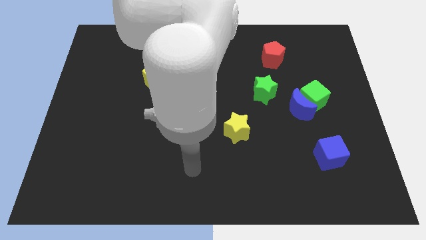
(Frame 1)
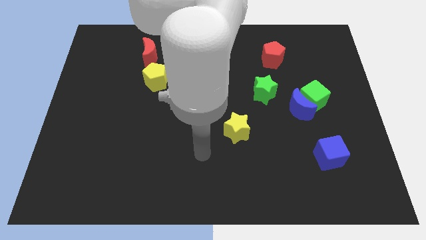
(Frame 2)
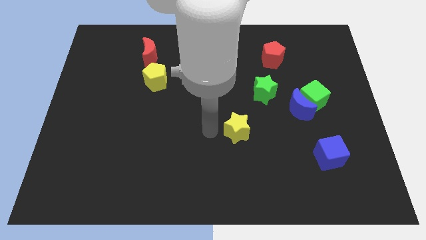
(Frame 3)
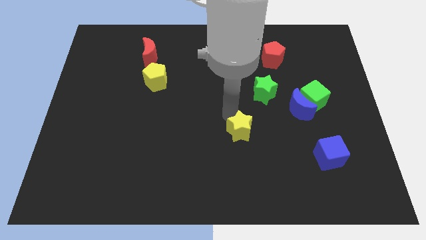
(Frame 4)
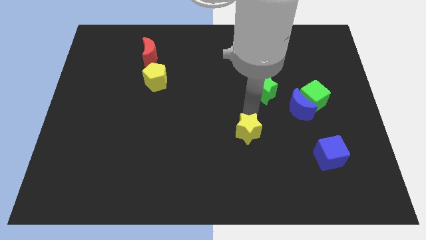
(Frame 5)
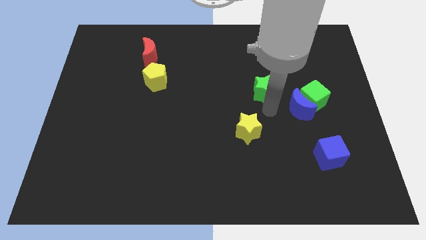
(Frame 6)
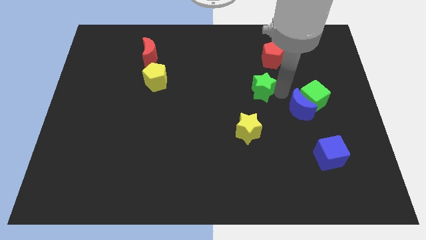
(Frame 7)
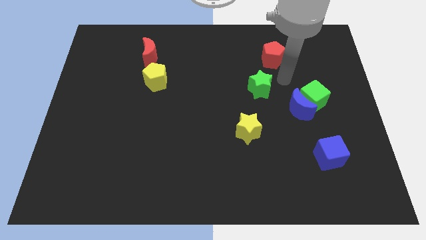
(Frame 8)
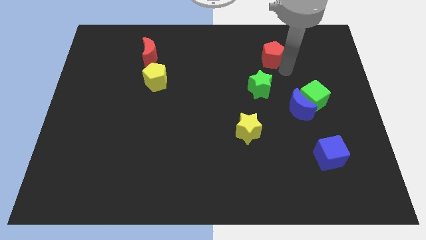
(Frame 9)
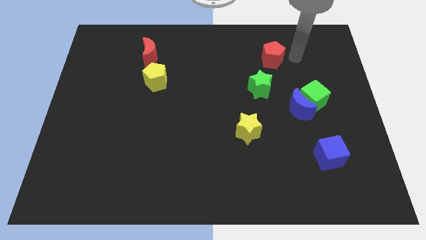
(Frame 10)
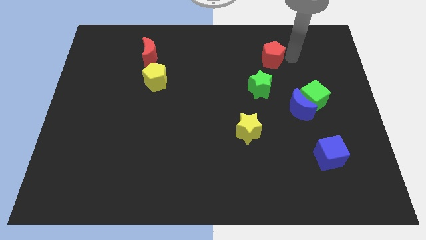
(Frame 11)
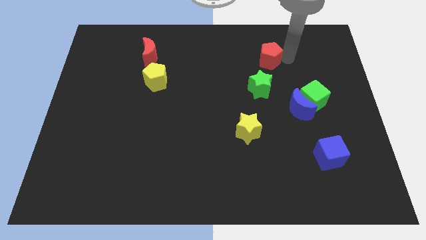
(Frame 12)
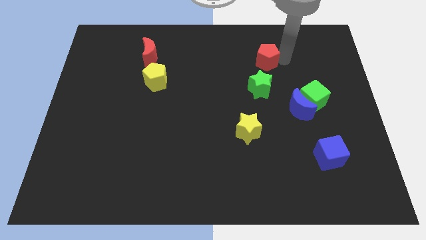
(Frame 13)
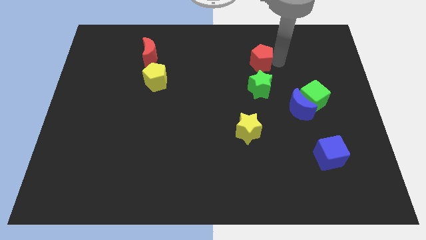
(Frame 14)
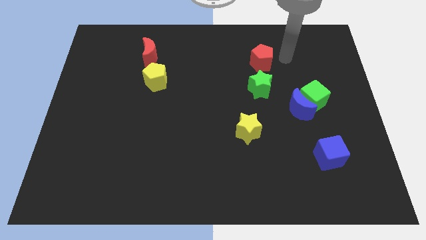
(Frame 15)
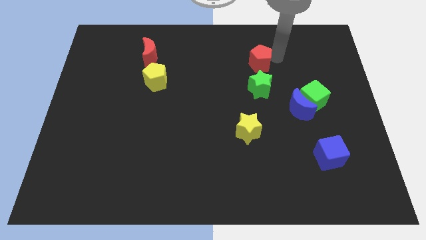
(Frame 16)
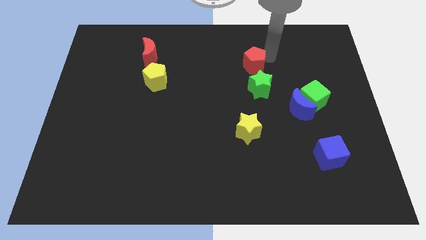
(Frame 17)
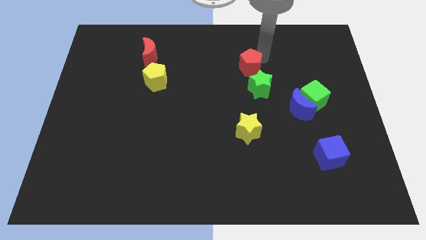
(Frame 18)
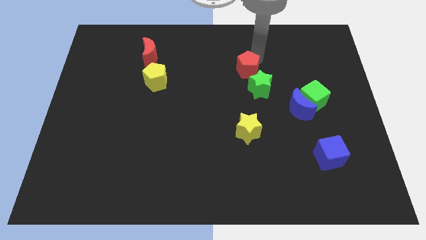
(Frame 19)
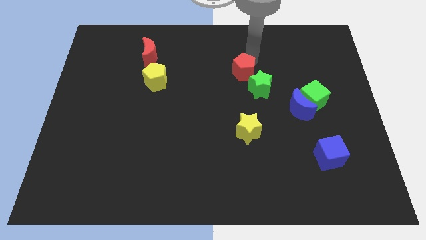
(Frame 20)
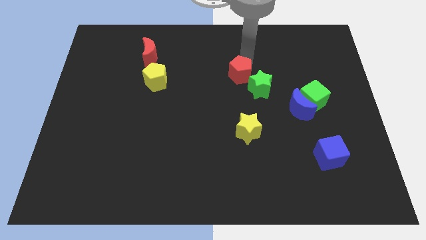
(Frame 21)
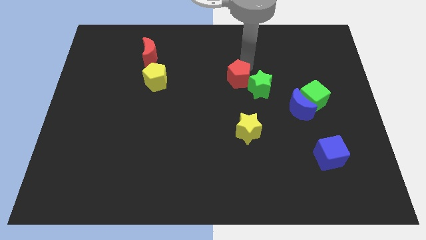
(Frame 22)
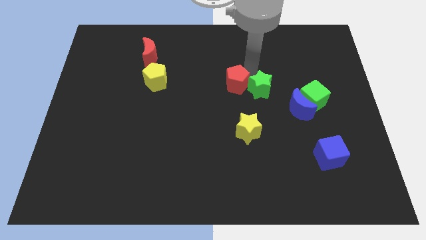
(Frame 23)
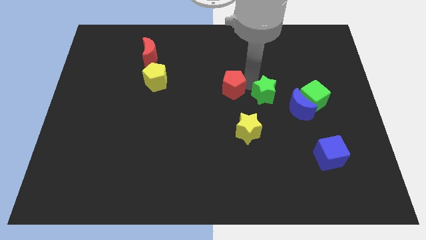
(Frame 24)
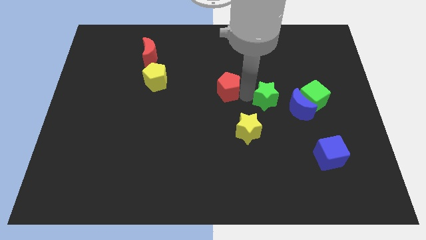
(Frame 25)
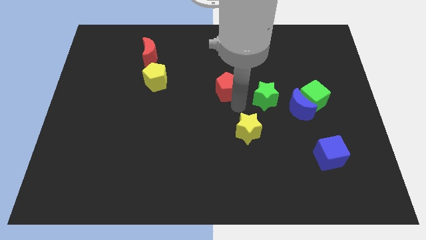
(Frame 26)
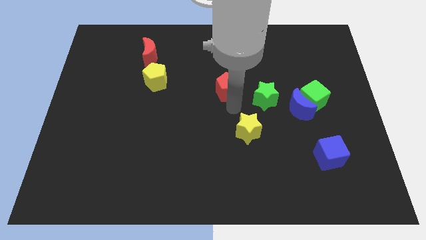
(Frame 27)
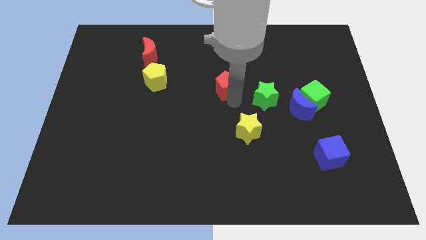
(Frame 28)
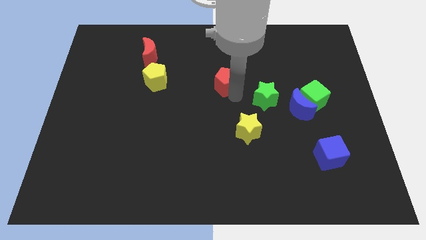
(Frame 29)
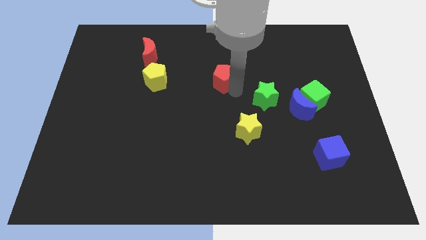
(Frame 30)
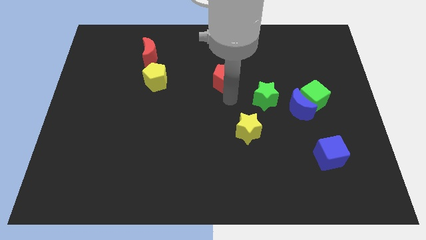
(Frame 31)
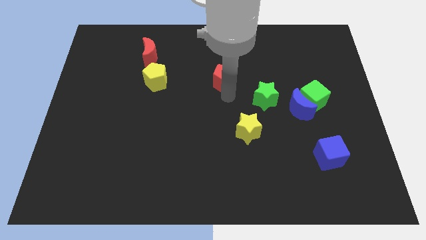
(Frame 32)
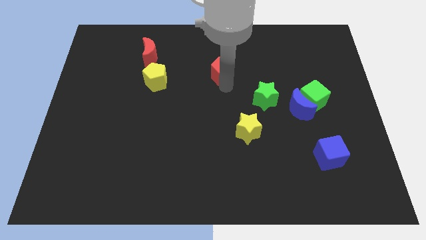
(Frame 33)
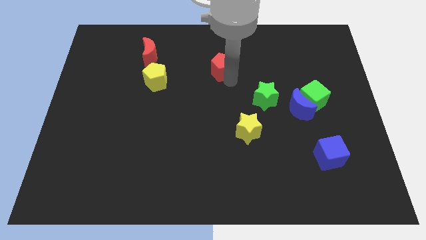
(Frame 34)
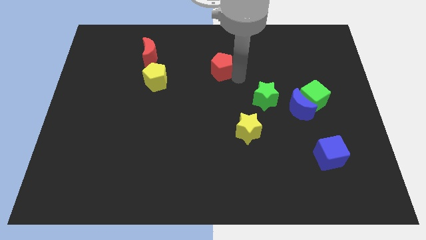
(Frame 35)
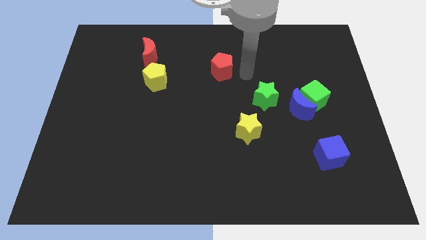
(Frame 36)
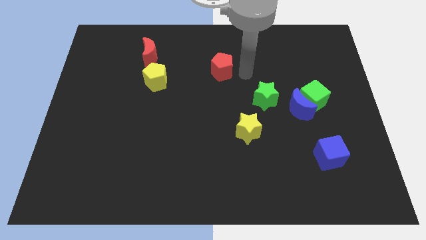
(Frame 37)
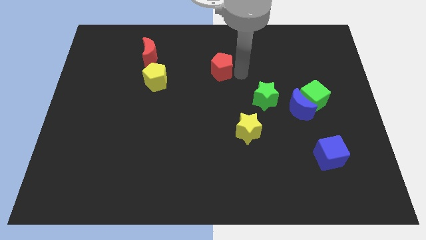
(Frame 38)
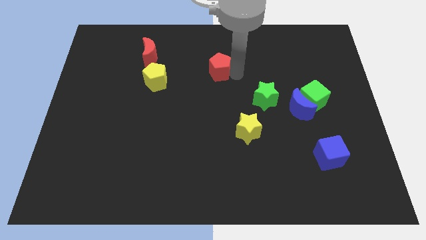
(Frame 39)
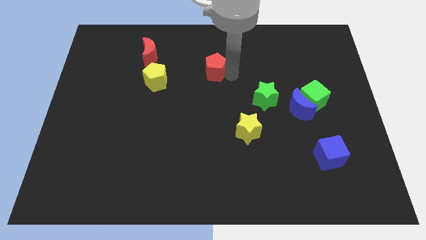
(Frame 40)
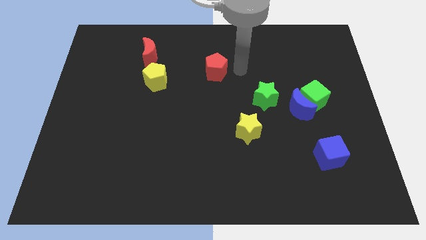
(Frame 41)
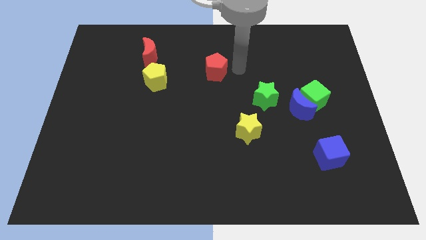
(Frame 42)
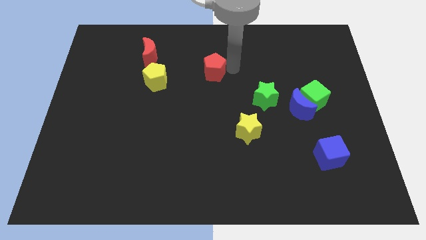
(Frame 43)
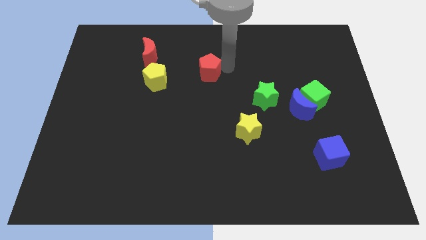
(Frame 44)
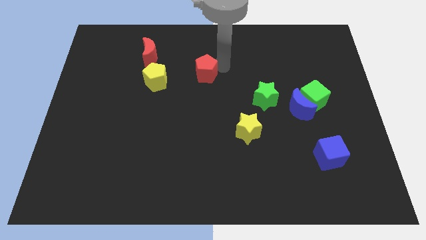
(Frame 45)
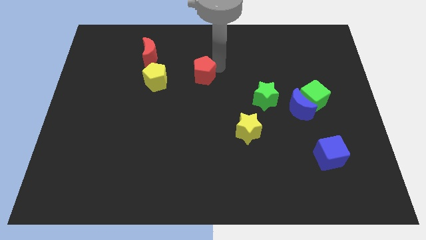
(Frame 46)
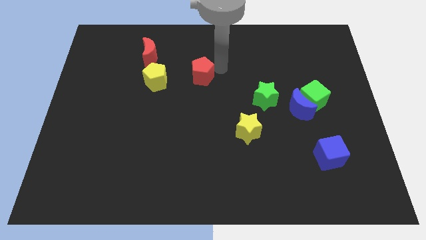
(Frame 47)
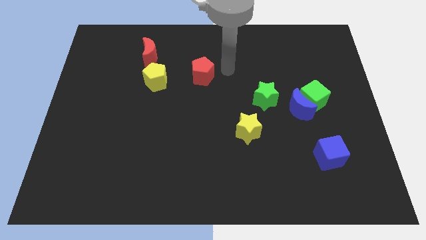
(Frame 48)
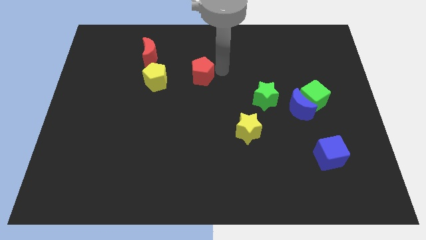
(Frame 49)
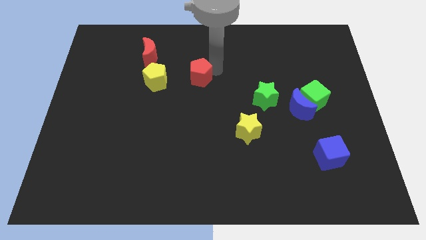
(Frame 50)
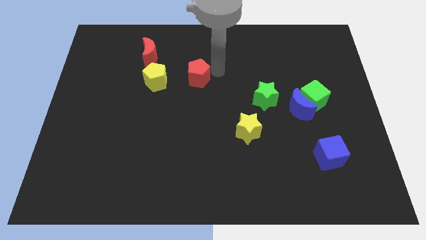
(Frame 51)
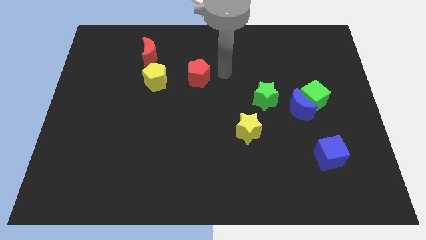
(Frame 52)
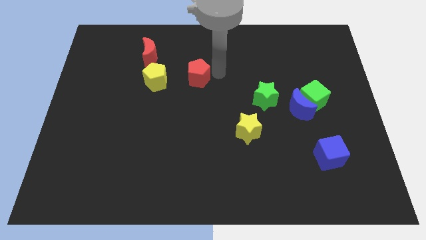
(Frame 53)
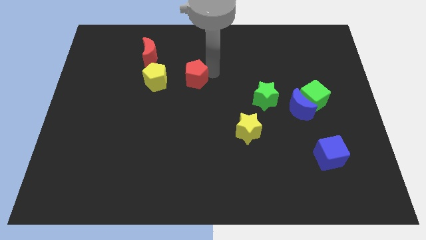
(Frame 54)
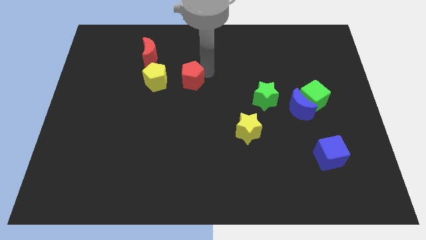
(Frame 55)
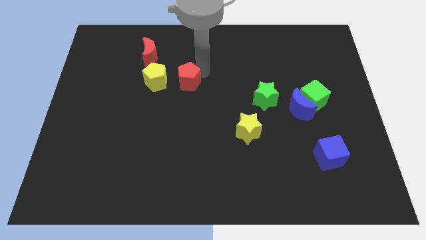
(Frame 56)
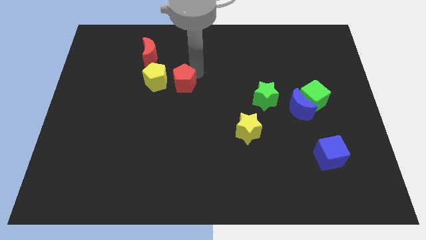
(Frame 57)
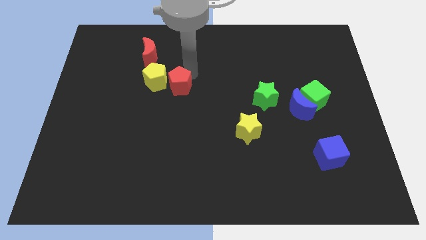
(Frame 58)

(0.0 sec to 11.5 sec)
move the red pentagon close to the yellow pentagon

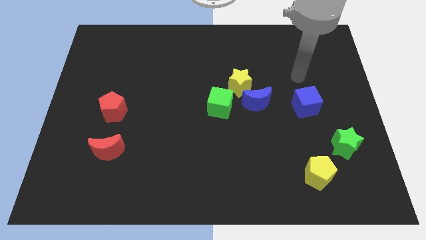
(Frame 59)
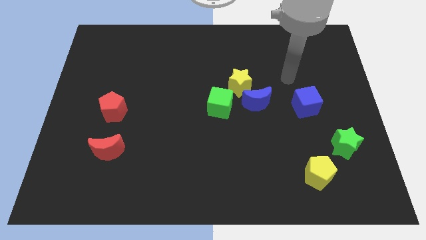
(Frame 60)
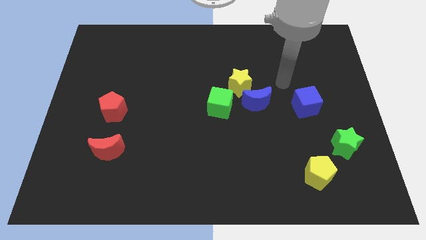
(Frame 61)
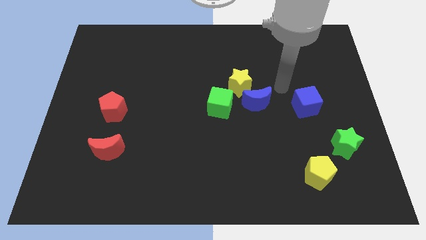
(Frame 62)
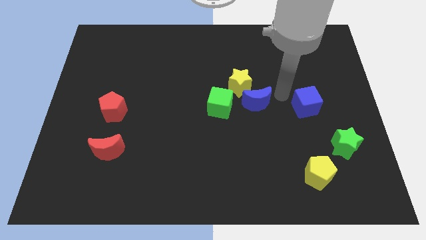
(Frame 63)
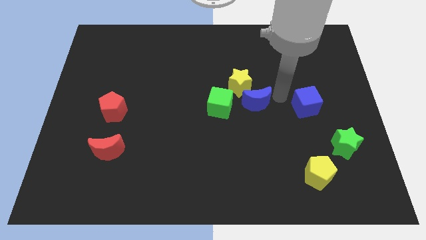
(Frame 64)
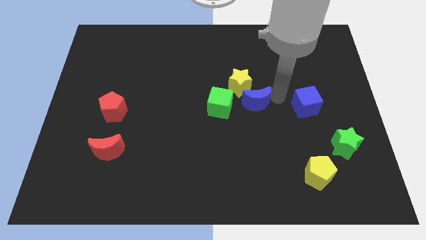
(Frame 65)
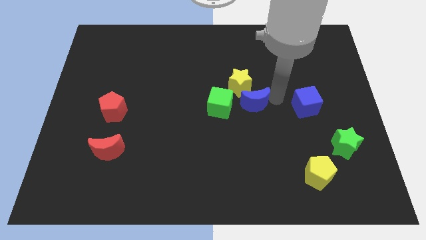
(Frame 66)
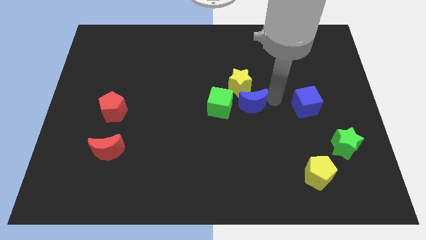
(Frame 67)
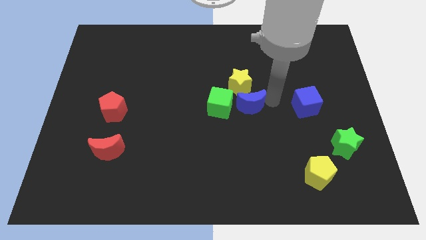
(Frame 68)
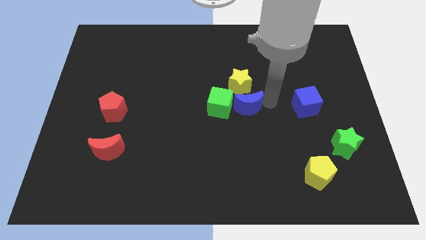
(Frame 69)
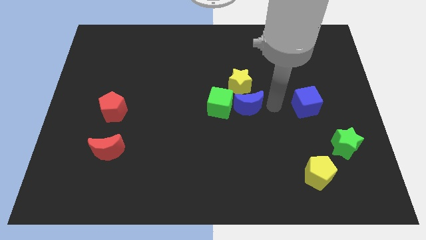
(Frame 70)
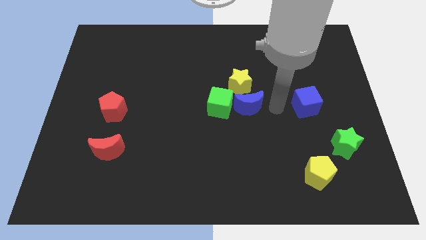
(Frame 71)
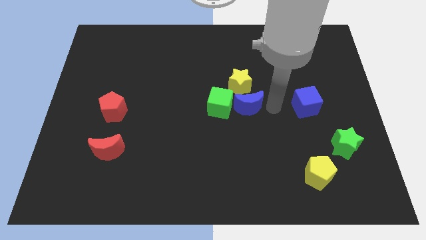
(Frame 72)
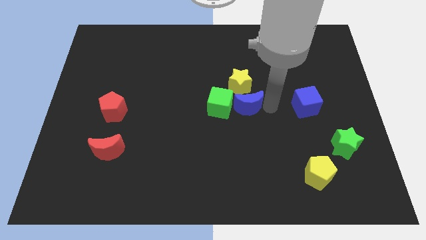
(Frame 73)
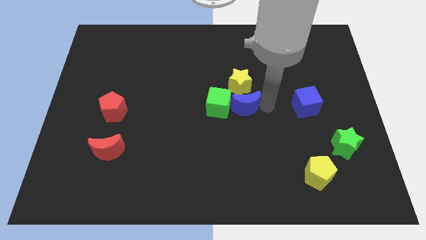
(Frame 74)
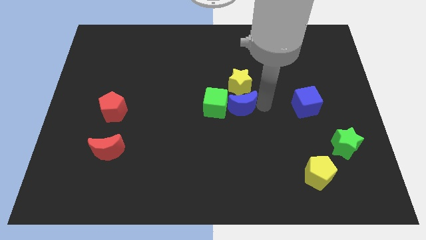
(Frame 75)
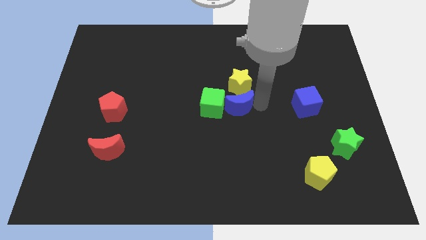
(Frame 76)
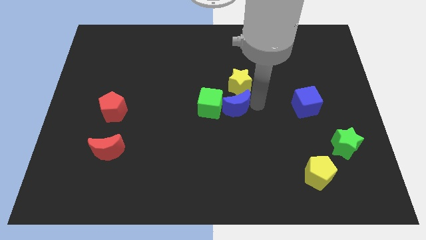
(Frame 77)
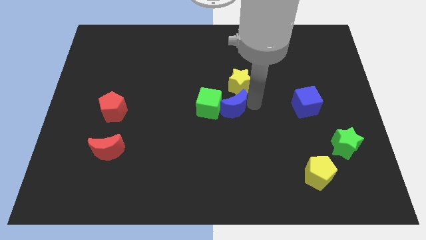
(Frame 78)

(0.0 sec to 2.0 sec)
slide the blue moon close to the green cube
